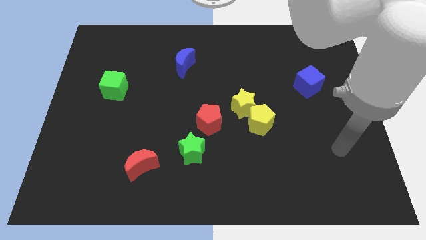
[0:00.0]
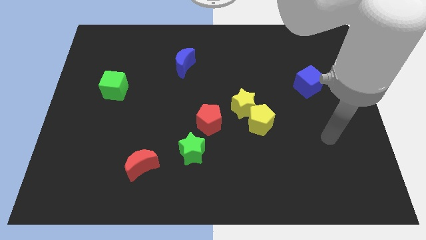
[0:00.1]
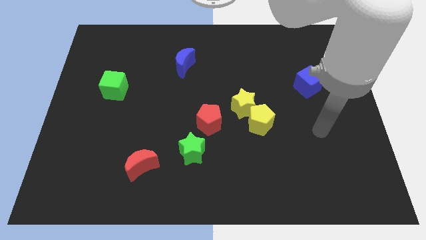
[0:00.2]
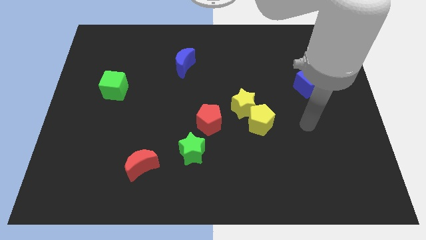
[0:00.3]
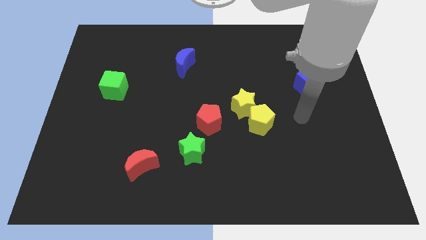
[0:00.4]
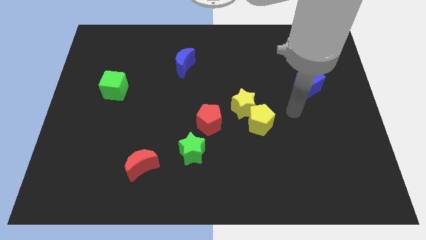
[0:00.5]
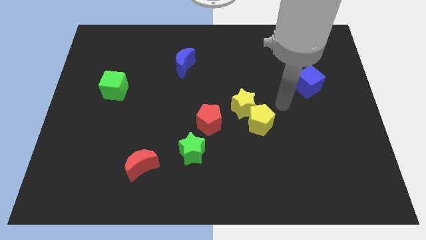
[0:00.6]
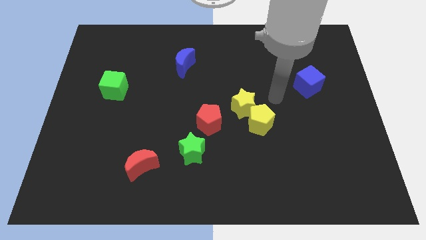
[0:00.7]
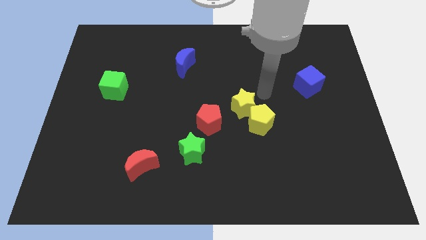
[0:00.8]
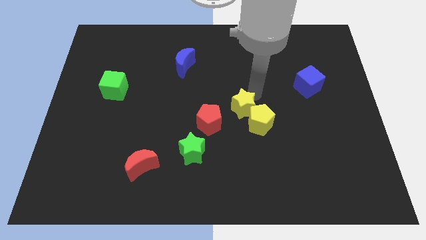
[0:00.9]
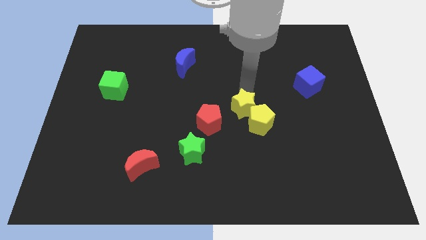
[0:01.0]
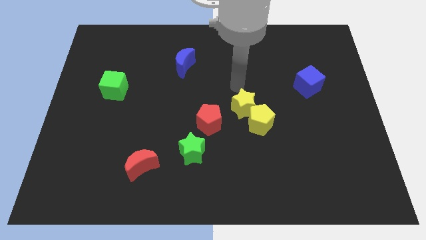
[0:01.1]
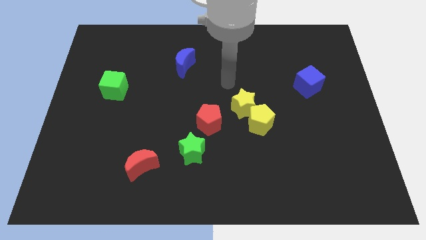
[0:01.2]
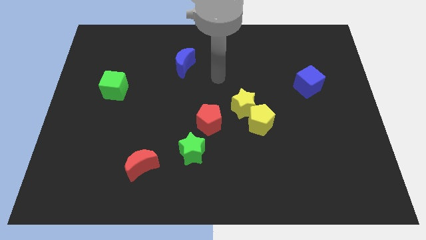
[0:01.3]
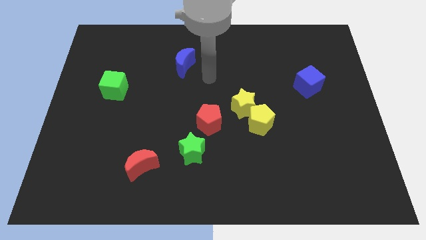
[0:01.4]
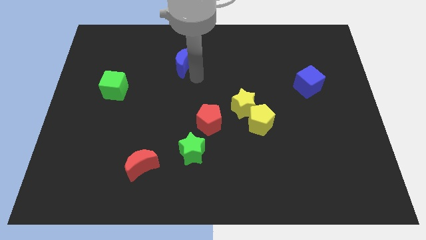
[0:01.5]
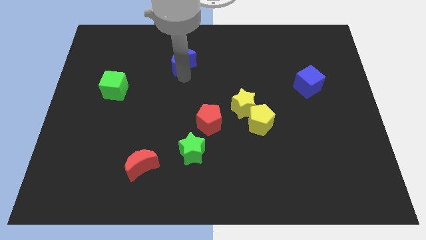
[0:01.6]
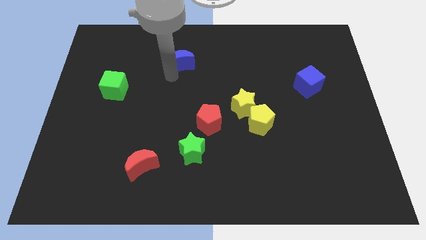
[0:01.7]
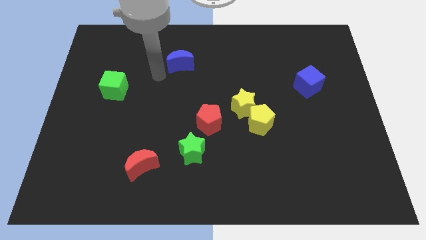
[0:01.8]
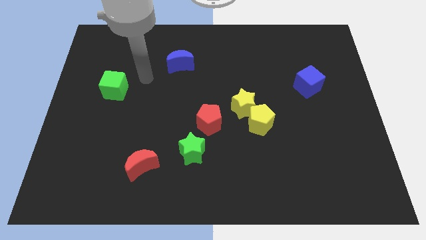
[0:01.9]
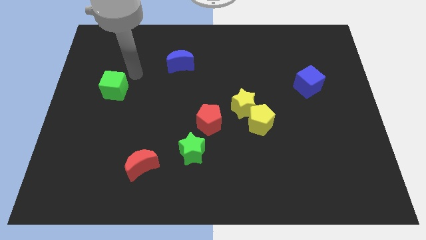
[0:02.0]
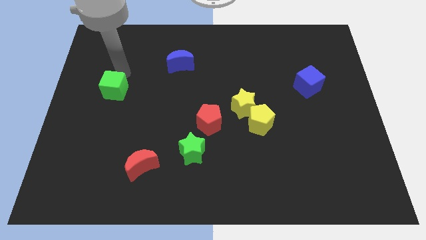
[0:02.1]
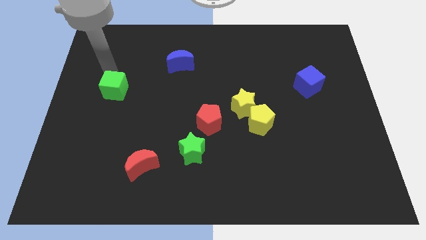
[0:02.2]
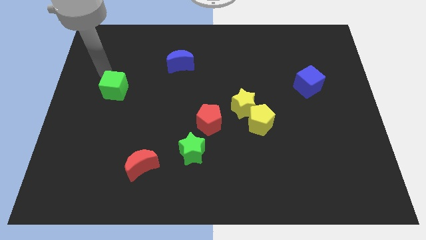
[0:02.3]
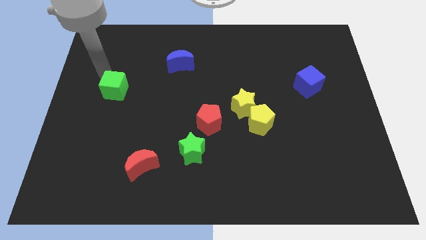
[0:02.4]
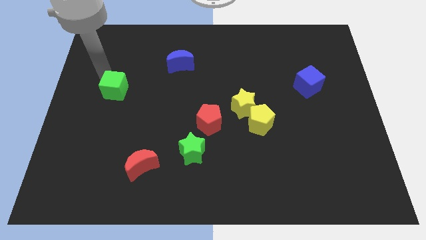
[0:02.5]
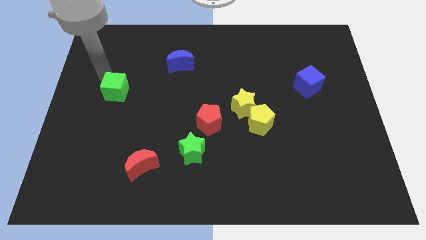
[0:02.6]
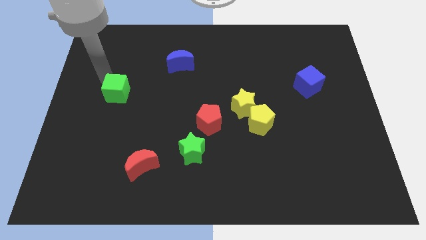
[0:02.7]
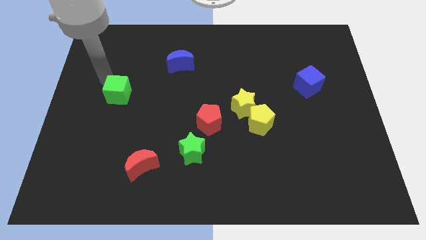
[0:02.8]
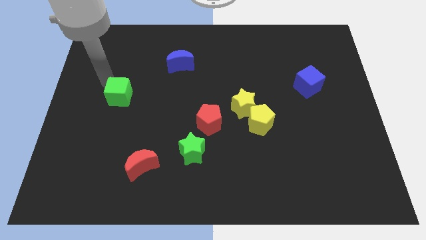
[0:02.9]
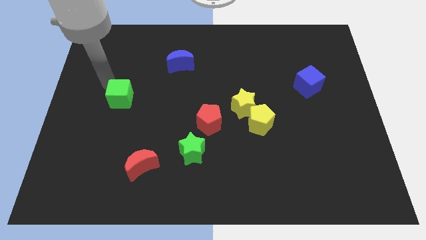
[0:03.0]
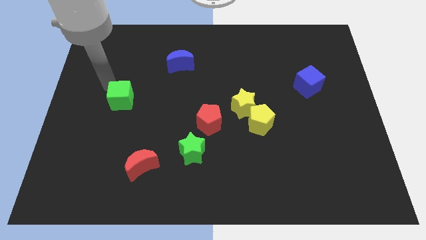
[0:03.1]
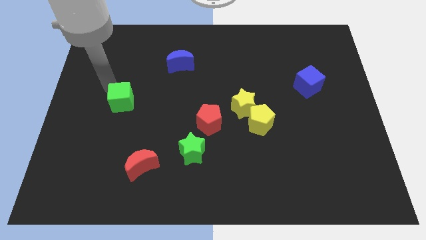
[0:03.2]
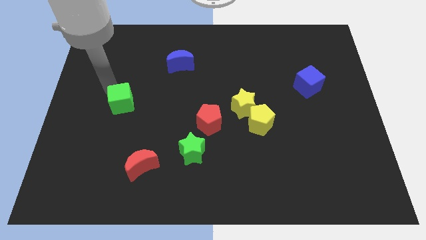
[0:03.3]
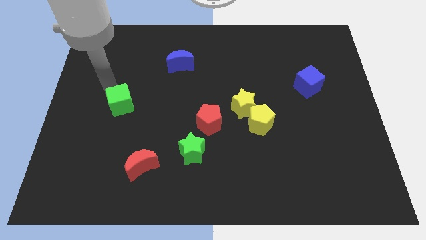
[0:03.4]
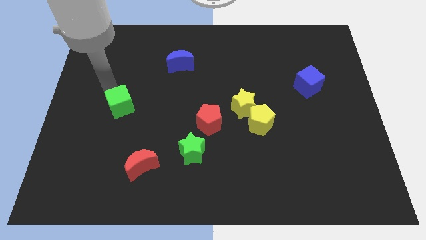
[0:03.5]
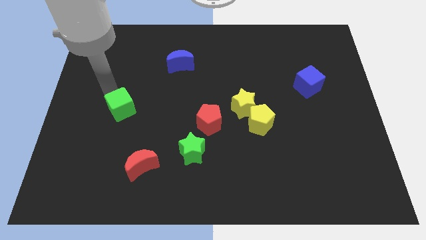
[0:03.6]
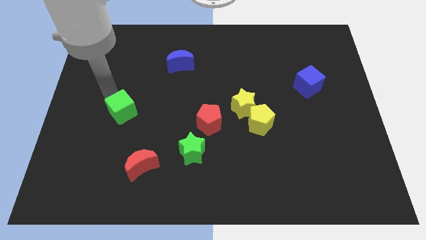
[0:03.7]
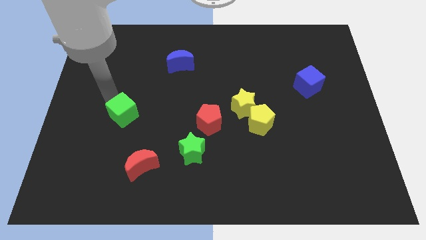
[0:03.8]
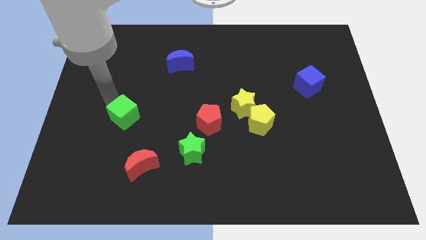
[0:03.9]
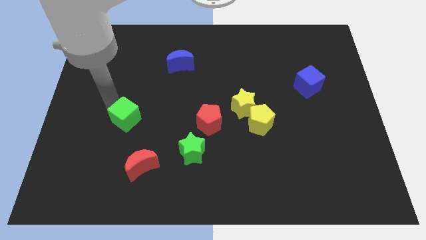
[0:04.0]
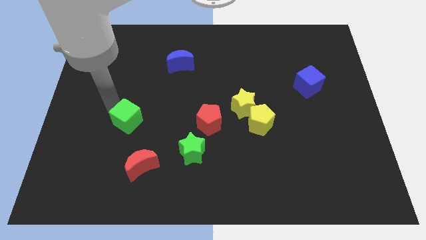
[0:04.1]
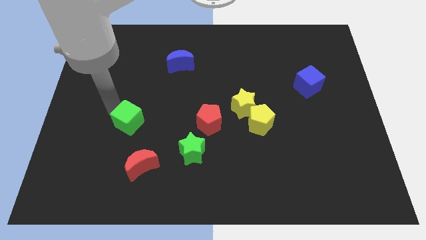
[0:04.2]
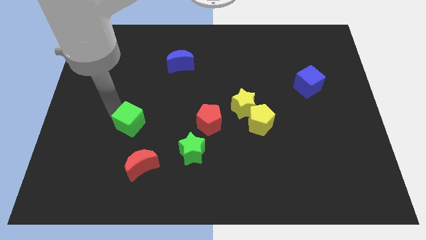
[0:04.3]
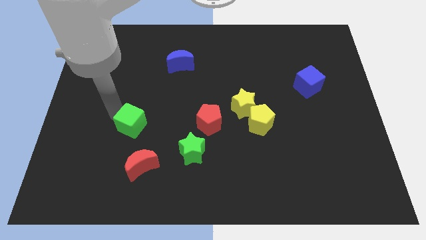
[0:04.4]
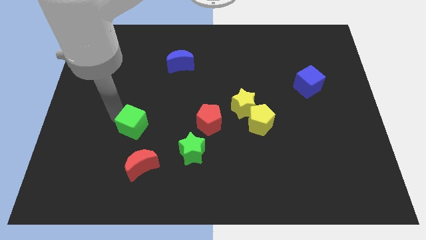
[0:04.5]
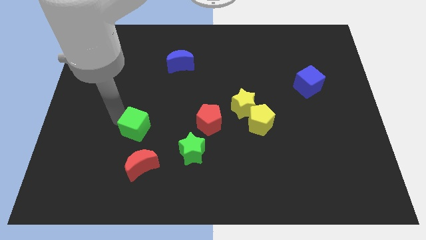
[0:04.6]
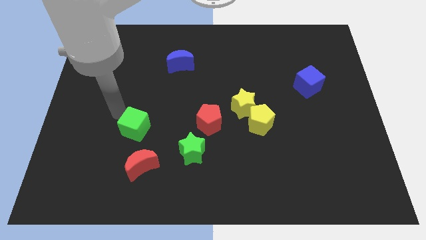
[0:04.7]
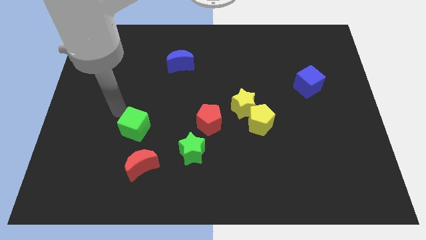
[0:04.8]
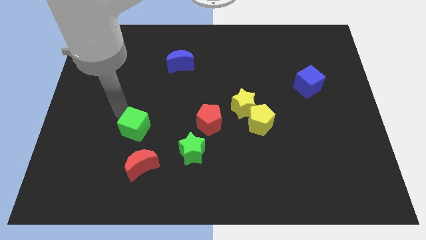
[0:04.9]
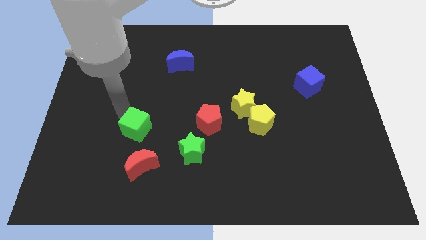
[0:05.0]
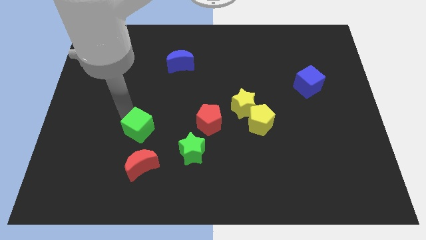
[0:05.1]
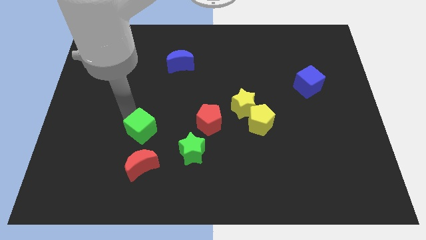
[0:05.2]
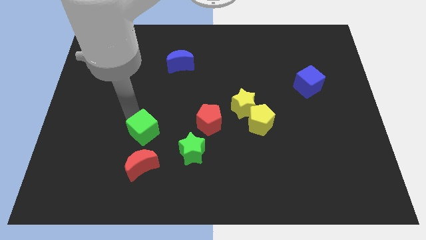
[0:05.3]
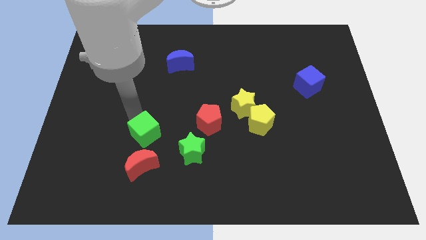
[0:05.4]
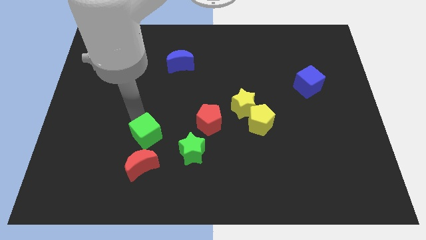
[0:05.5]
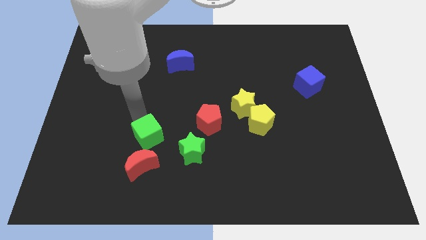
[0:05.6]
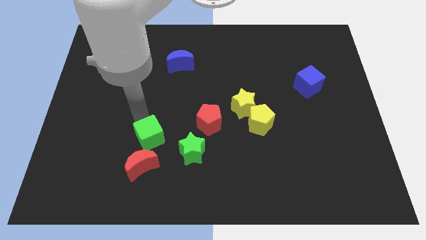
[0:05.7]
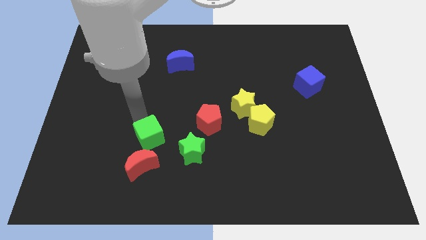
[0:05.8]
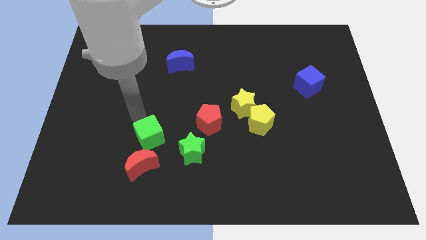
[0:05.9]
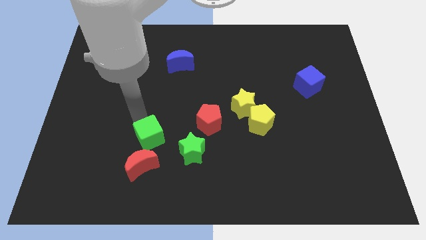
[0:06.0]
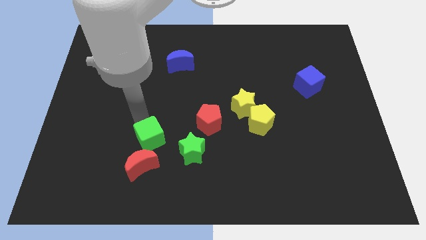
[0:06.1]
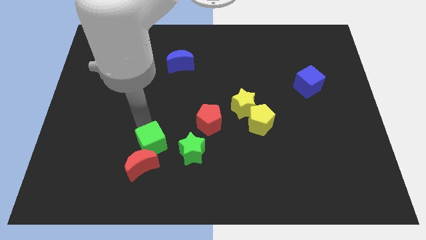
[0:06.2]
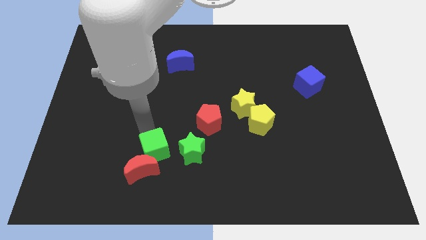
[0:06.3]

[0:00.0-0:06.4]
push the green cube downwards and then to the right

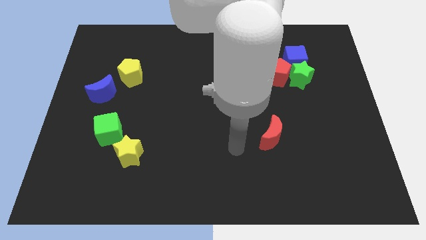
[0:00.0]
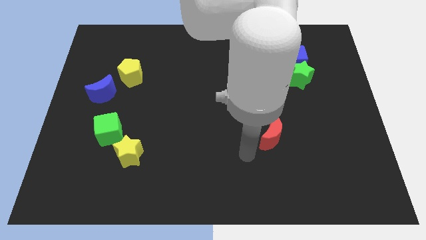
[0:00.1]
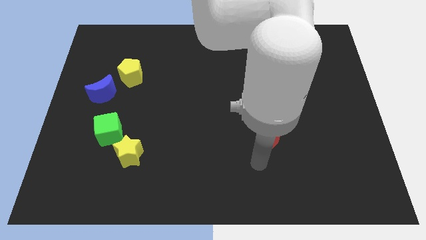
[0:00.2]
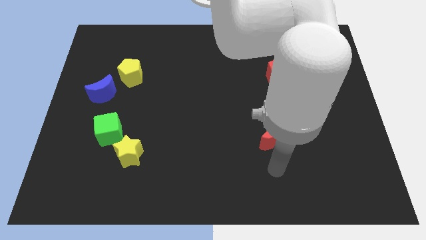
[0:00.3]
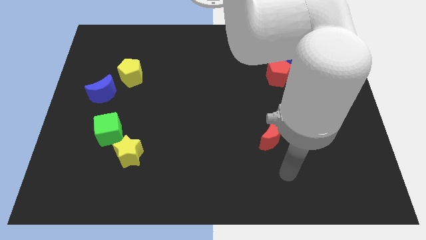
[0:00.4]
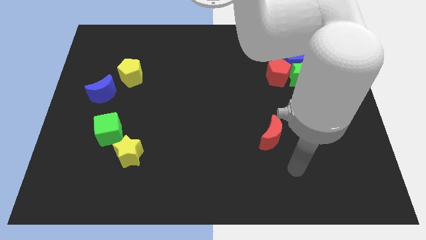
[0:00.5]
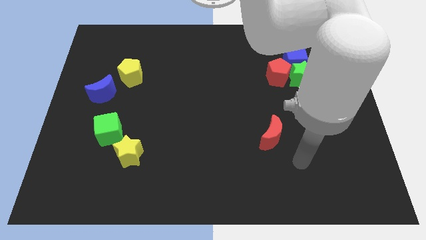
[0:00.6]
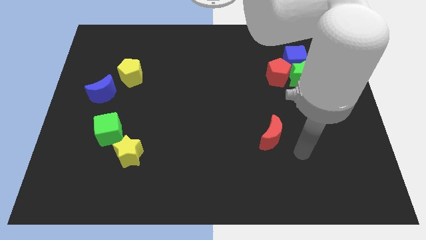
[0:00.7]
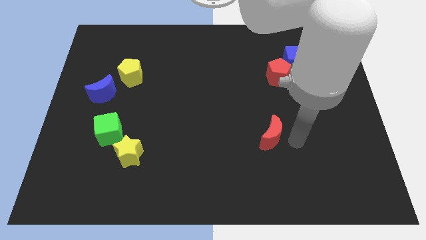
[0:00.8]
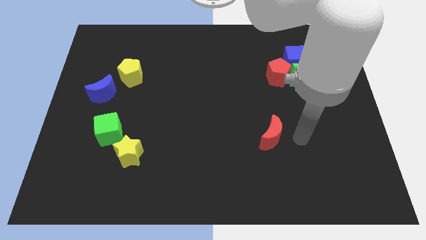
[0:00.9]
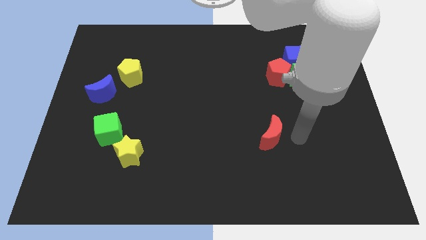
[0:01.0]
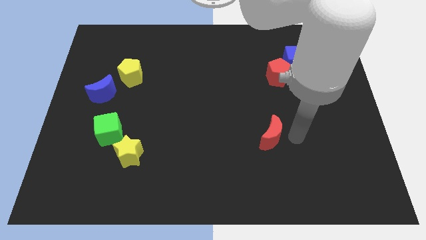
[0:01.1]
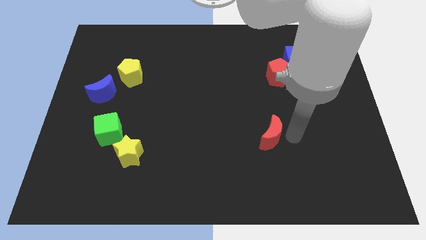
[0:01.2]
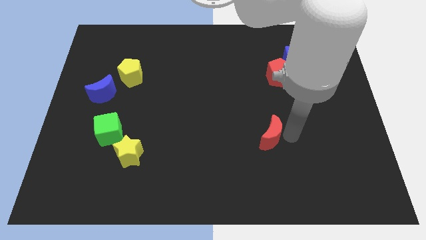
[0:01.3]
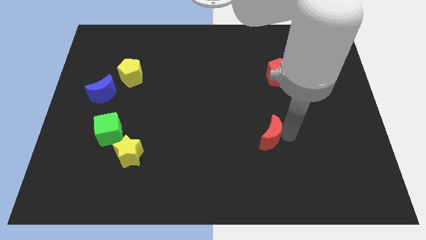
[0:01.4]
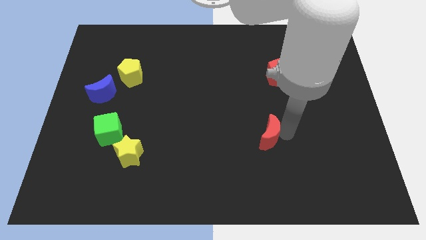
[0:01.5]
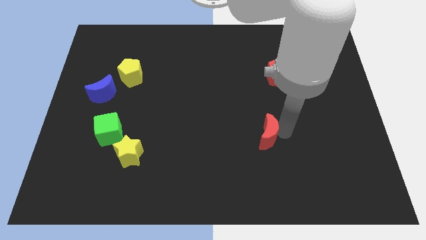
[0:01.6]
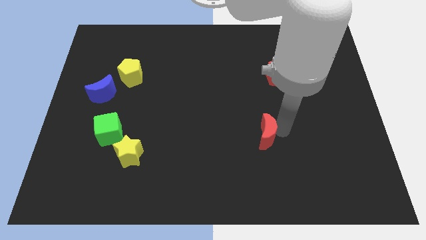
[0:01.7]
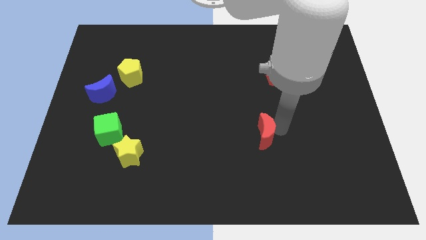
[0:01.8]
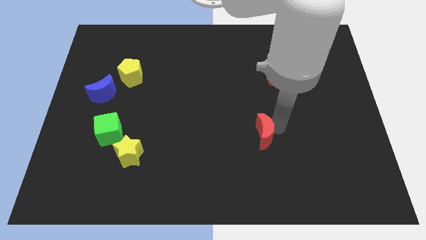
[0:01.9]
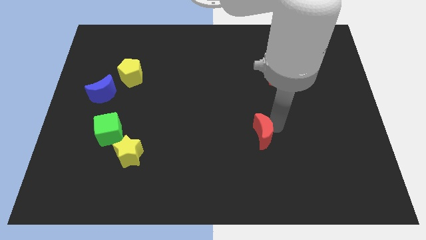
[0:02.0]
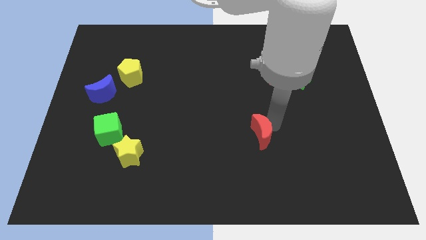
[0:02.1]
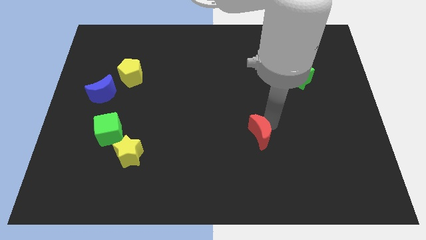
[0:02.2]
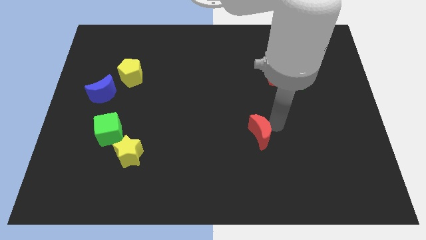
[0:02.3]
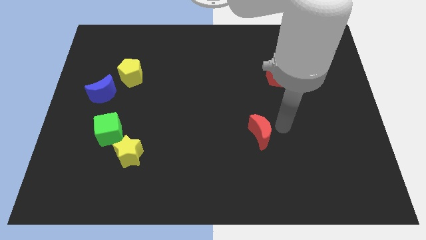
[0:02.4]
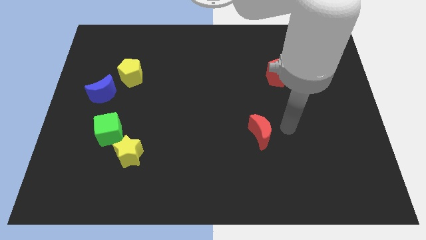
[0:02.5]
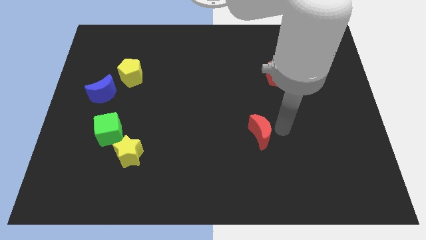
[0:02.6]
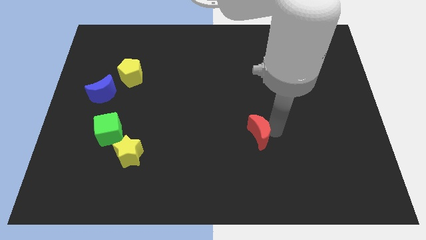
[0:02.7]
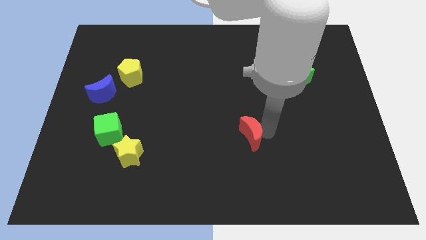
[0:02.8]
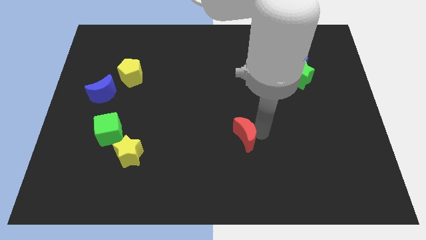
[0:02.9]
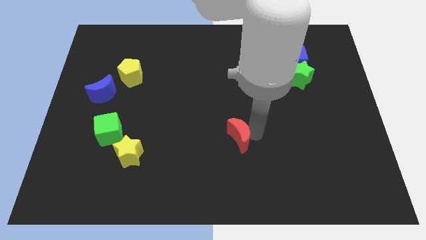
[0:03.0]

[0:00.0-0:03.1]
slightly move the red moon left
